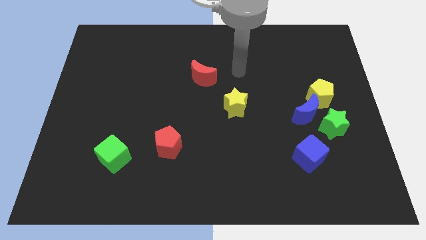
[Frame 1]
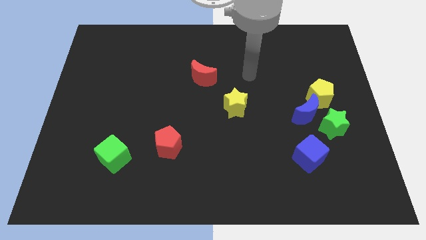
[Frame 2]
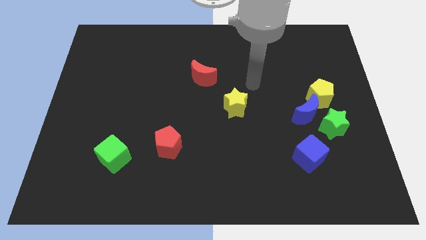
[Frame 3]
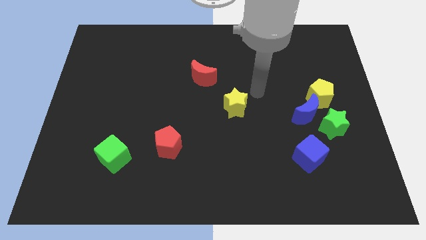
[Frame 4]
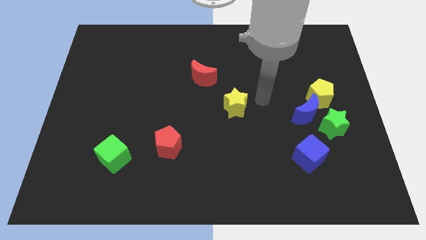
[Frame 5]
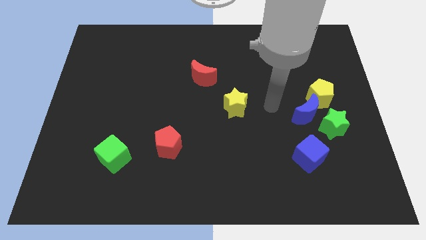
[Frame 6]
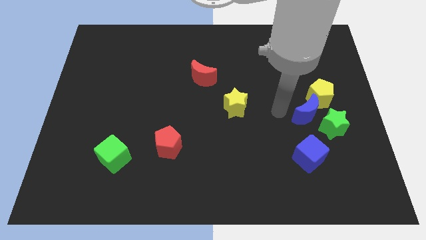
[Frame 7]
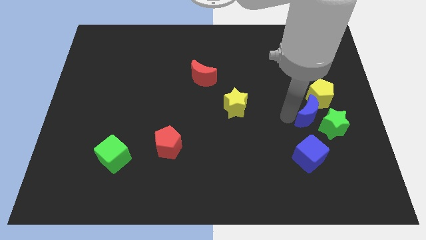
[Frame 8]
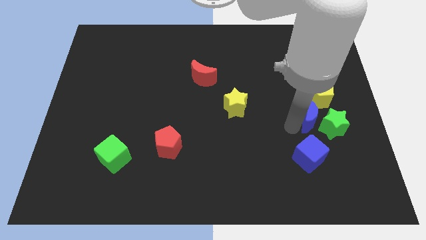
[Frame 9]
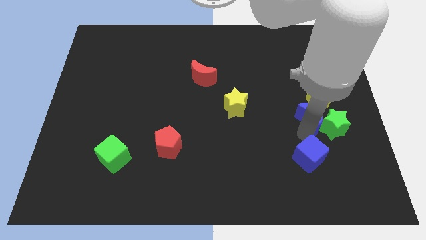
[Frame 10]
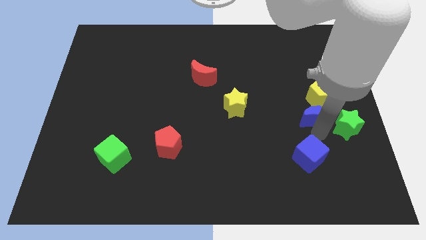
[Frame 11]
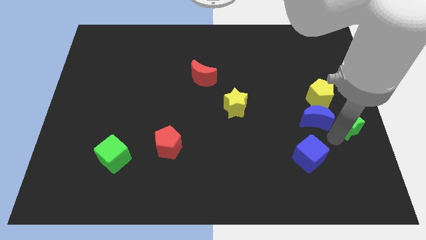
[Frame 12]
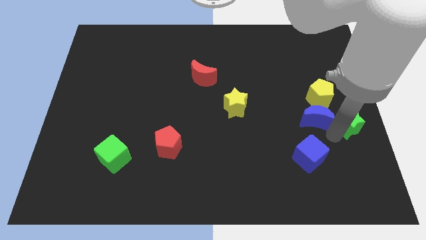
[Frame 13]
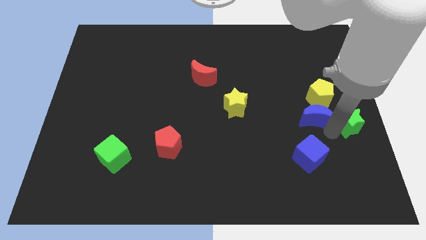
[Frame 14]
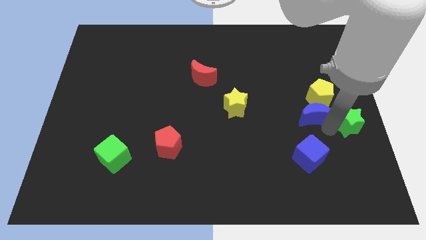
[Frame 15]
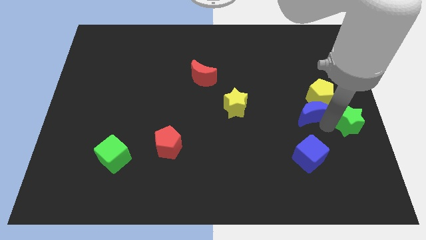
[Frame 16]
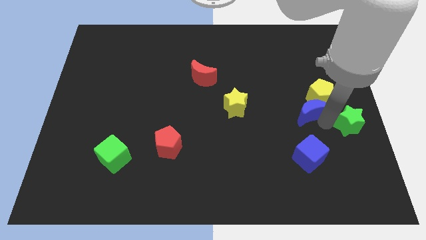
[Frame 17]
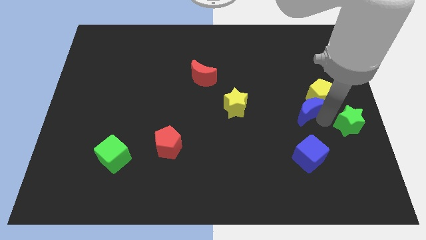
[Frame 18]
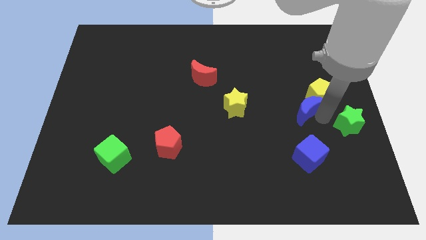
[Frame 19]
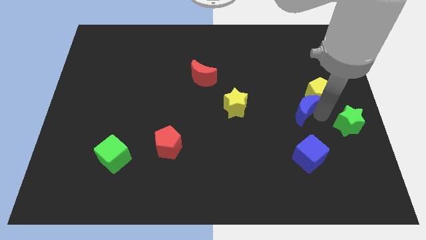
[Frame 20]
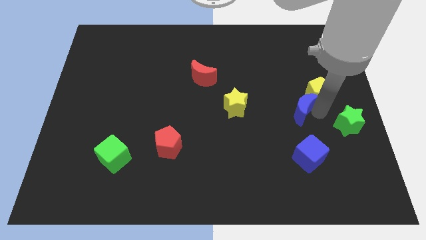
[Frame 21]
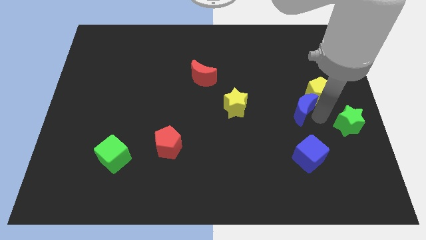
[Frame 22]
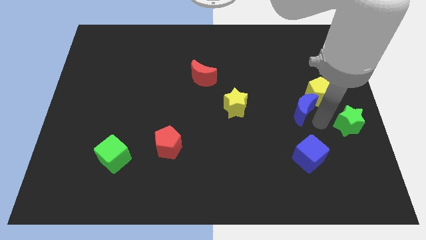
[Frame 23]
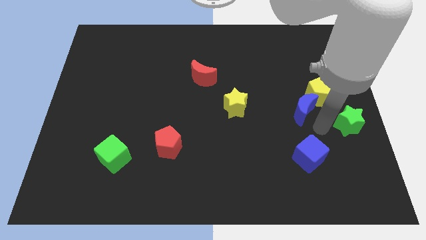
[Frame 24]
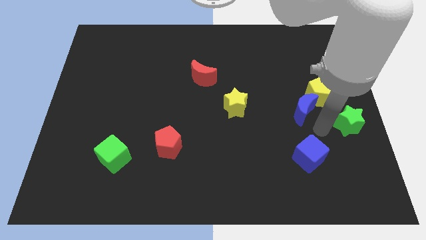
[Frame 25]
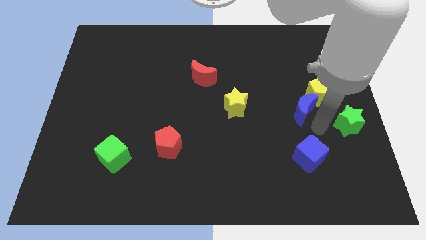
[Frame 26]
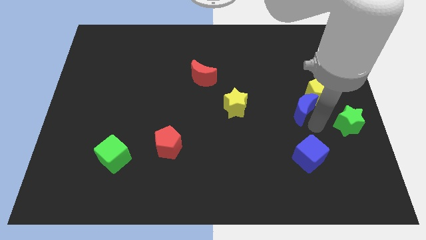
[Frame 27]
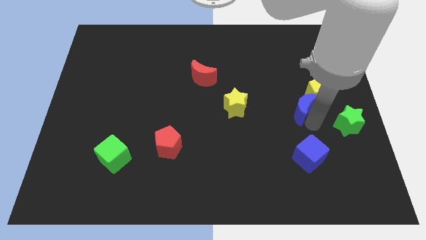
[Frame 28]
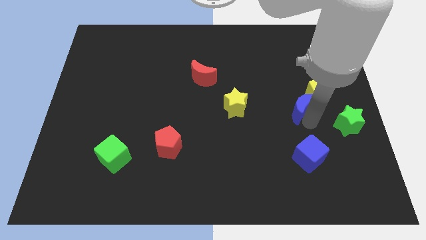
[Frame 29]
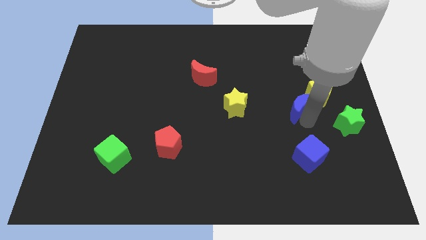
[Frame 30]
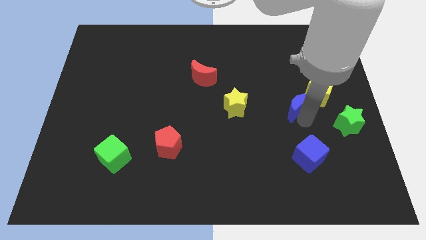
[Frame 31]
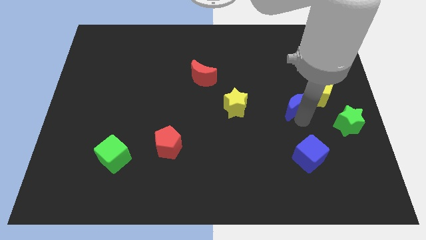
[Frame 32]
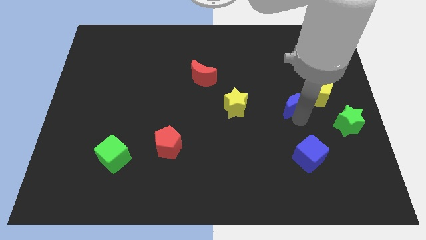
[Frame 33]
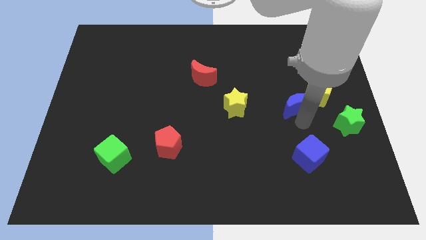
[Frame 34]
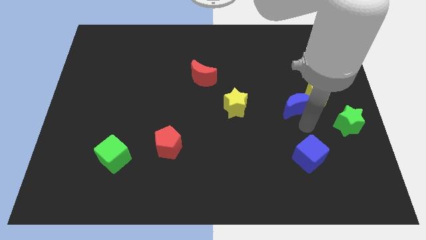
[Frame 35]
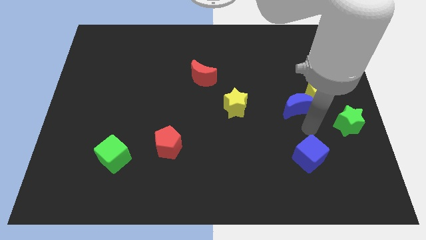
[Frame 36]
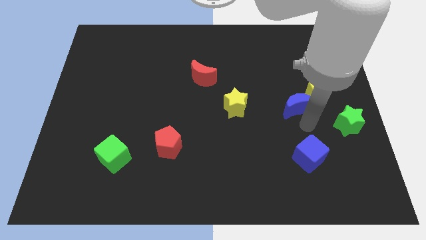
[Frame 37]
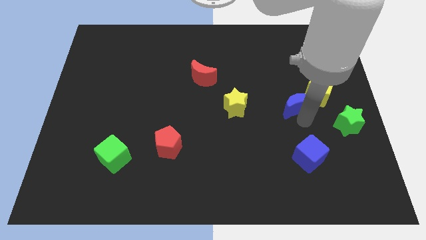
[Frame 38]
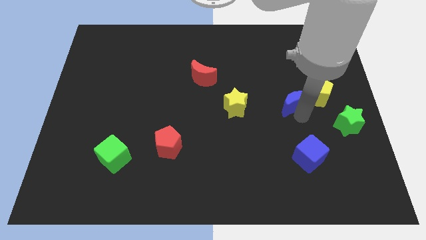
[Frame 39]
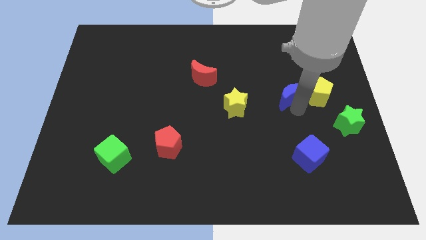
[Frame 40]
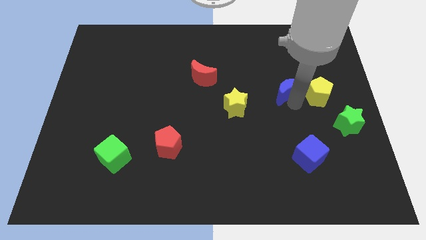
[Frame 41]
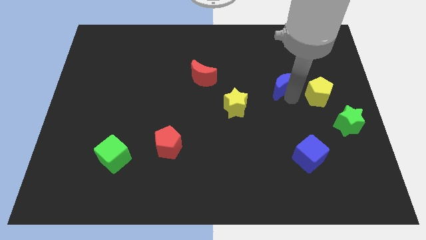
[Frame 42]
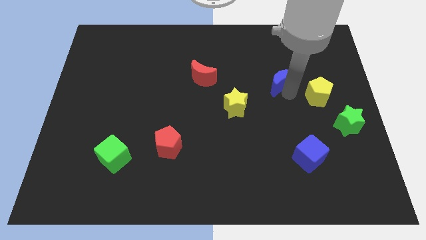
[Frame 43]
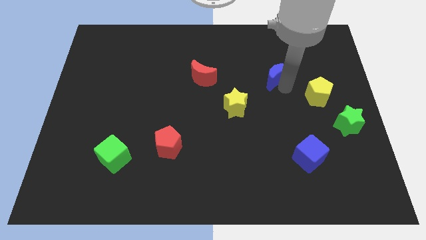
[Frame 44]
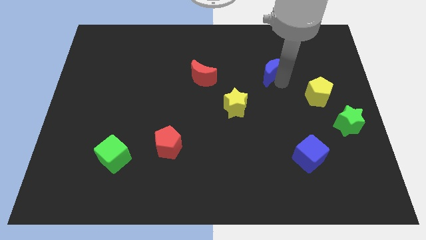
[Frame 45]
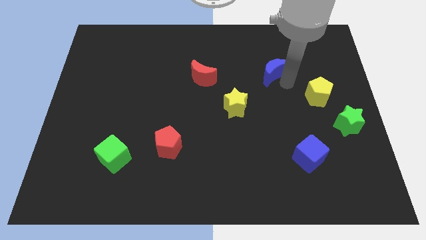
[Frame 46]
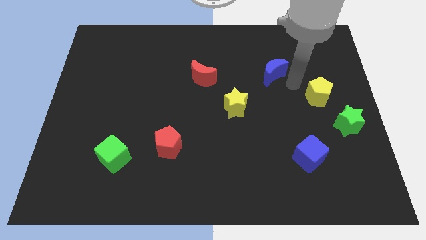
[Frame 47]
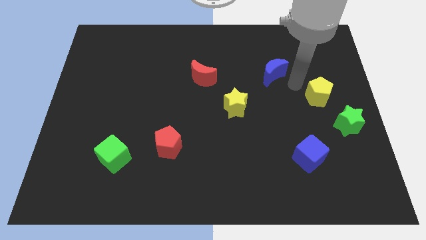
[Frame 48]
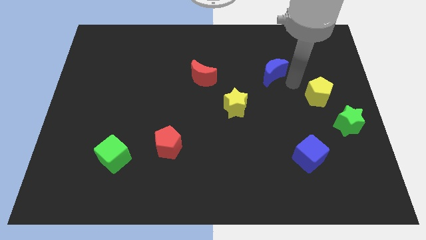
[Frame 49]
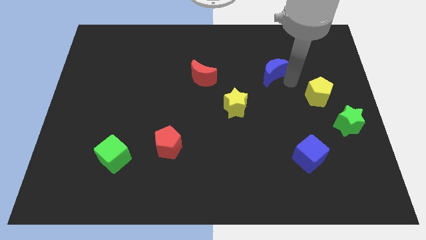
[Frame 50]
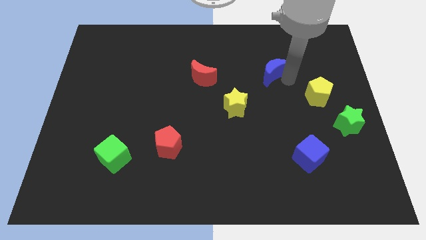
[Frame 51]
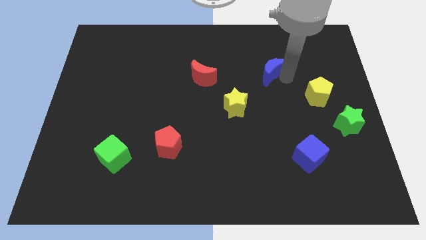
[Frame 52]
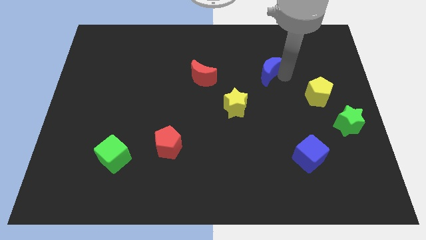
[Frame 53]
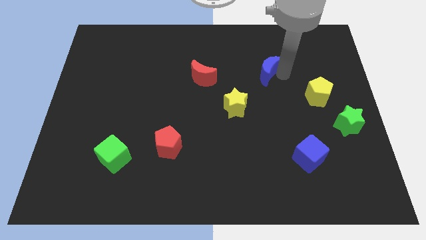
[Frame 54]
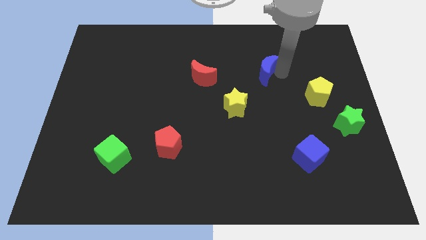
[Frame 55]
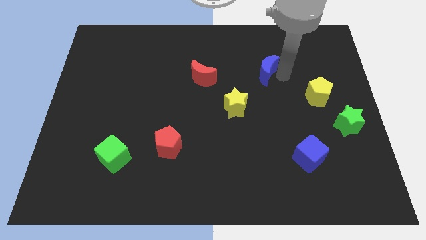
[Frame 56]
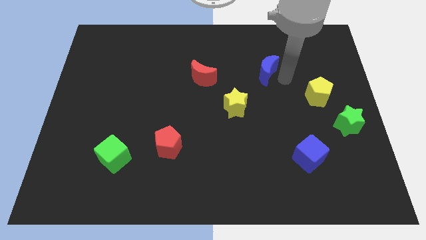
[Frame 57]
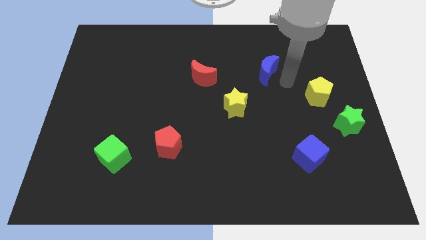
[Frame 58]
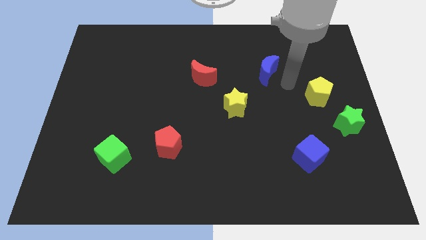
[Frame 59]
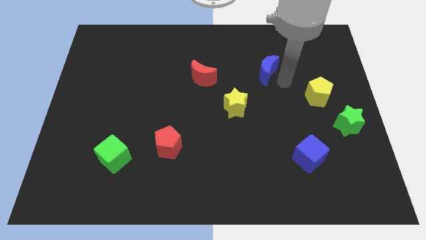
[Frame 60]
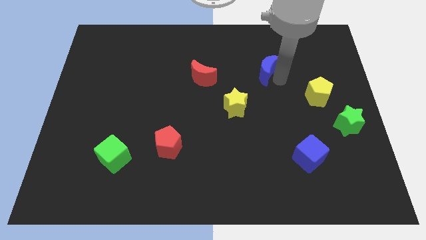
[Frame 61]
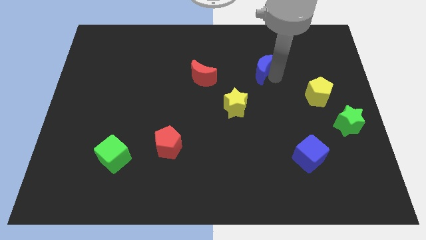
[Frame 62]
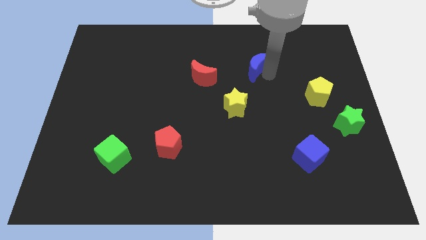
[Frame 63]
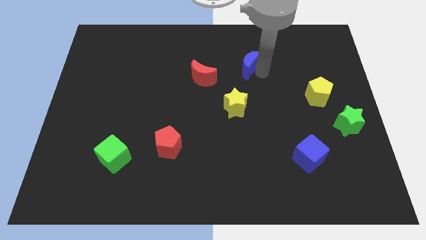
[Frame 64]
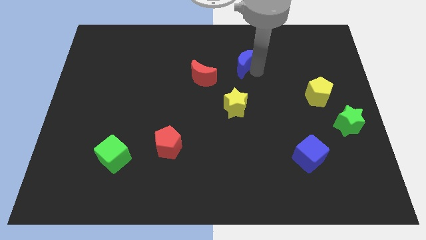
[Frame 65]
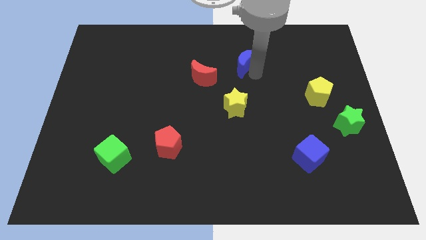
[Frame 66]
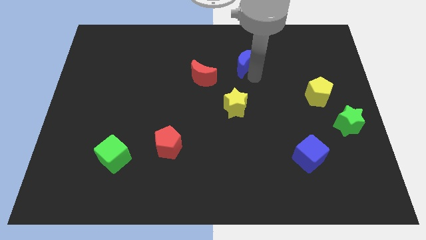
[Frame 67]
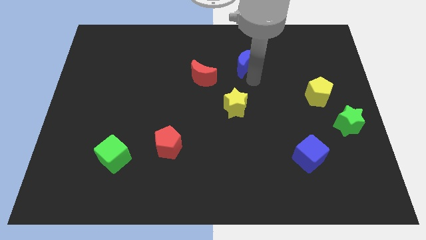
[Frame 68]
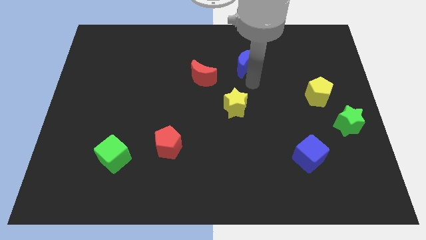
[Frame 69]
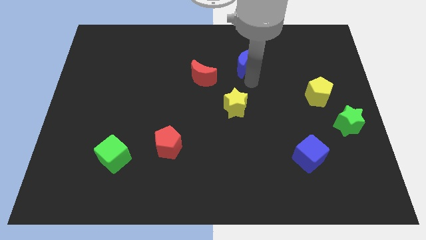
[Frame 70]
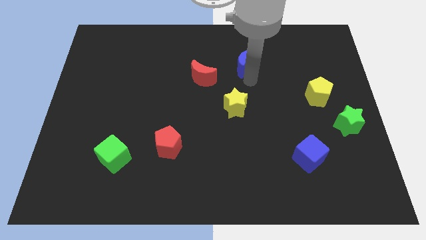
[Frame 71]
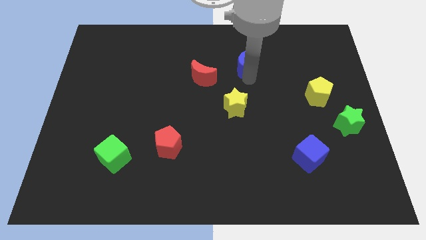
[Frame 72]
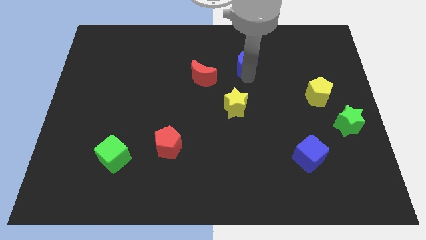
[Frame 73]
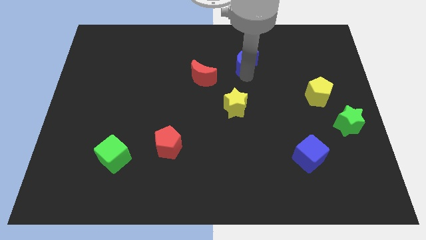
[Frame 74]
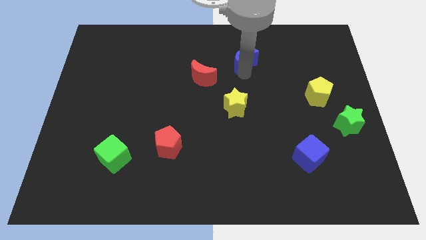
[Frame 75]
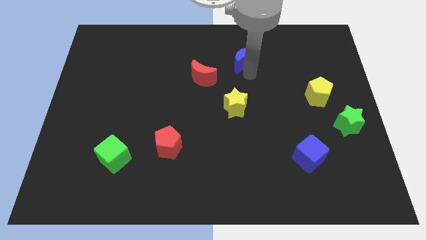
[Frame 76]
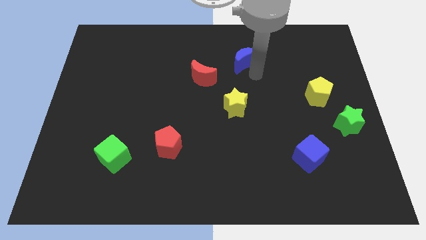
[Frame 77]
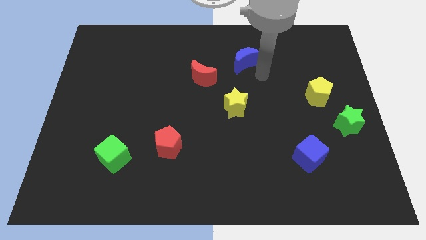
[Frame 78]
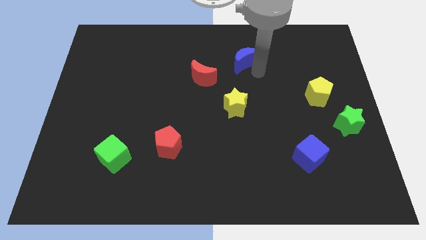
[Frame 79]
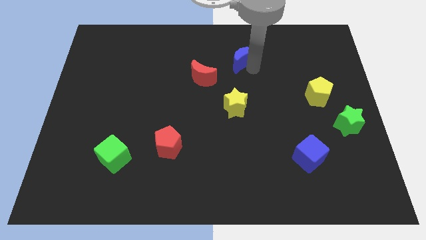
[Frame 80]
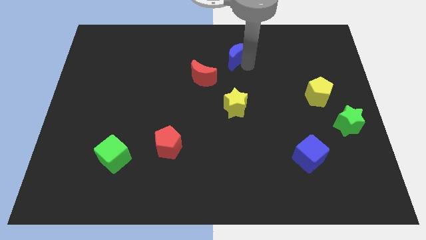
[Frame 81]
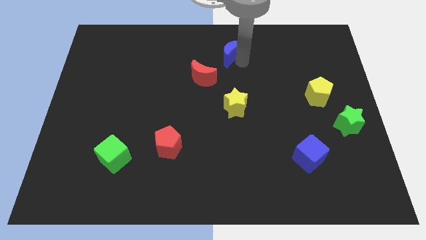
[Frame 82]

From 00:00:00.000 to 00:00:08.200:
put the blue moon to the top side
